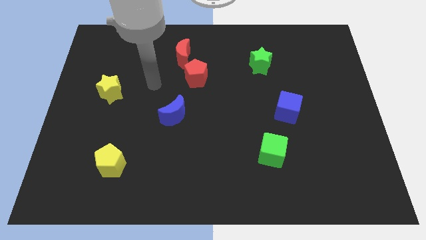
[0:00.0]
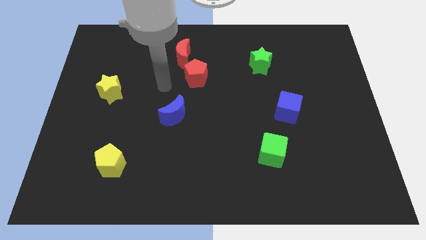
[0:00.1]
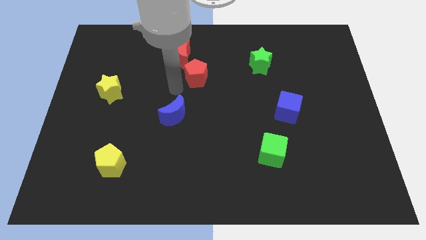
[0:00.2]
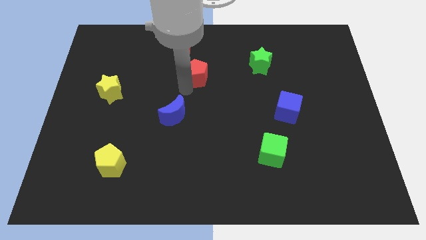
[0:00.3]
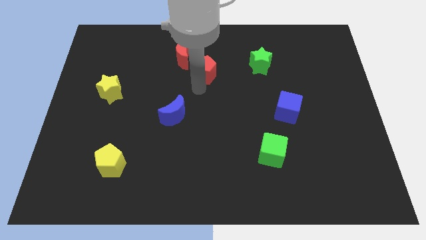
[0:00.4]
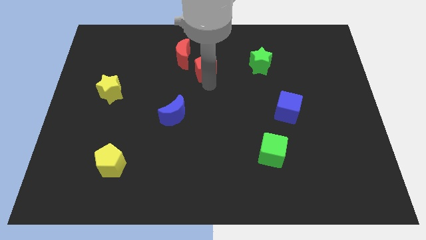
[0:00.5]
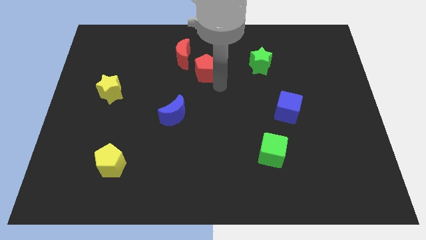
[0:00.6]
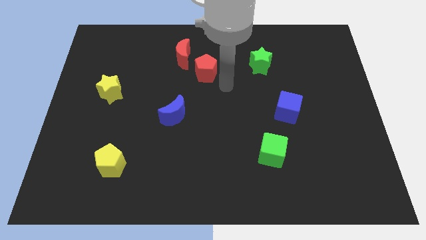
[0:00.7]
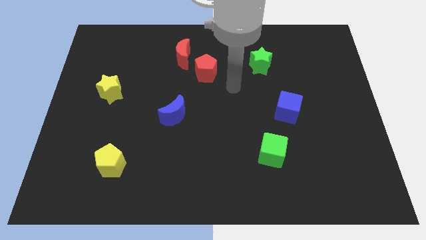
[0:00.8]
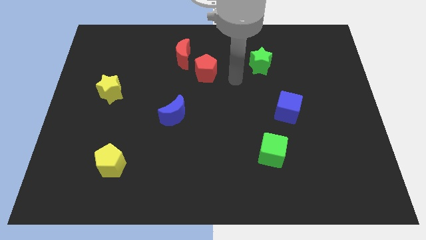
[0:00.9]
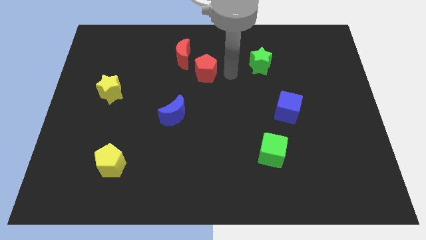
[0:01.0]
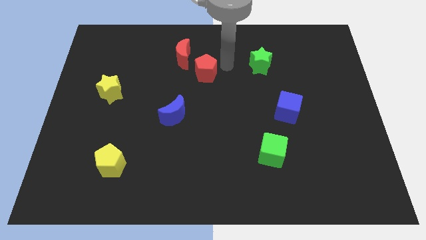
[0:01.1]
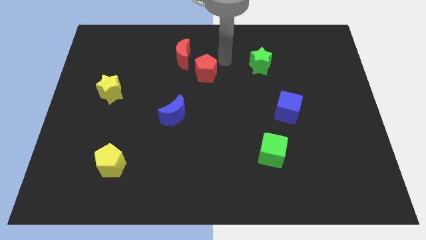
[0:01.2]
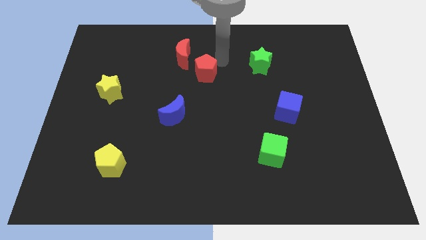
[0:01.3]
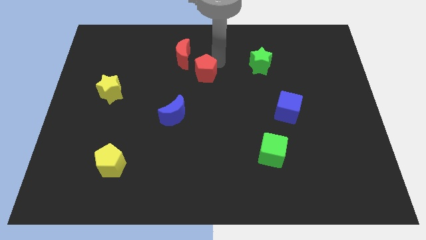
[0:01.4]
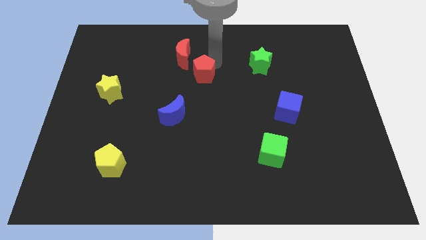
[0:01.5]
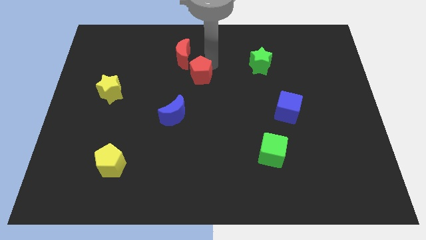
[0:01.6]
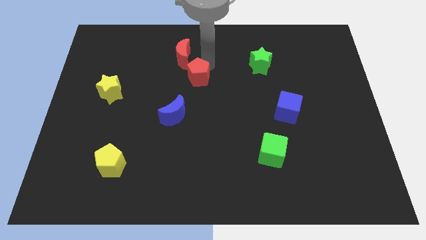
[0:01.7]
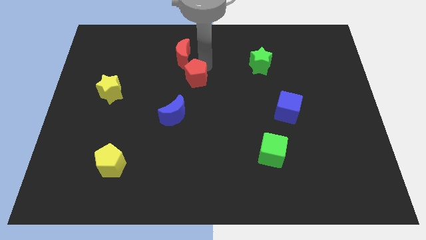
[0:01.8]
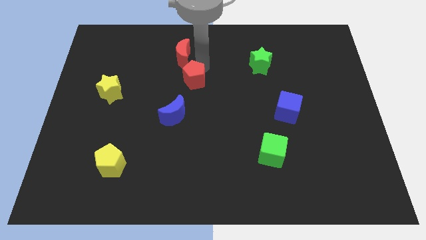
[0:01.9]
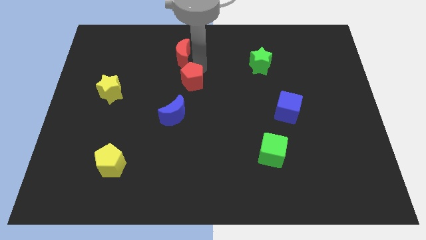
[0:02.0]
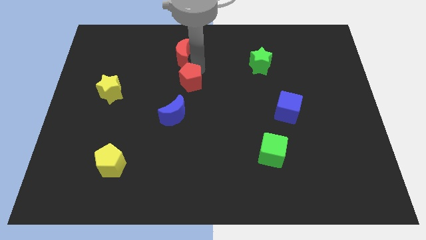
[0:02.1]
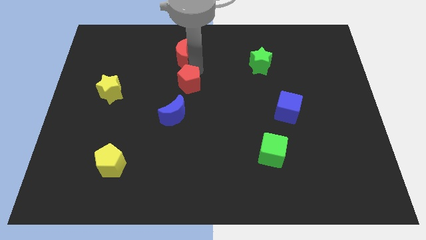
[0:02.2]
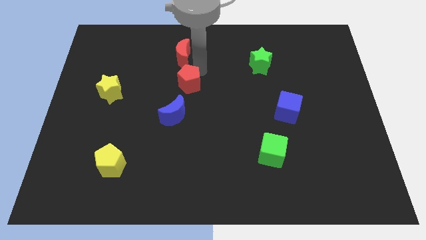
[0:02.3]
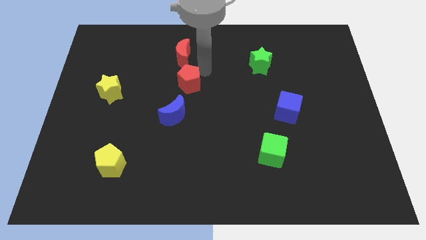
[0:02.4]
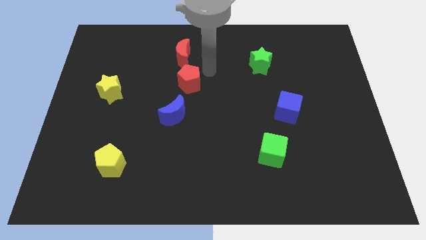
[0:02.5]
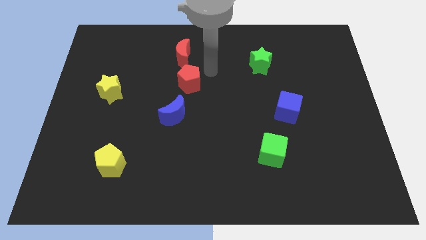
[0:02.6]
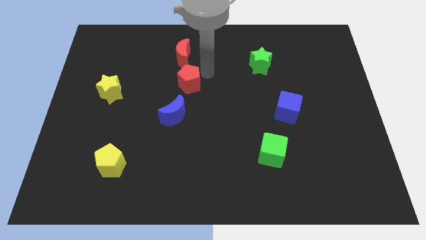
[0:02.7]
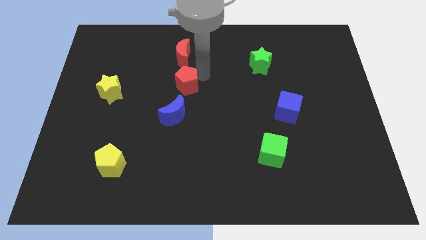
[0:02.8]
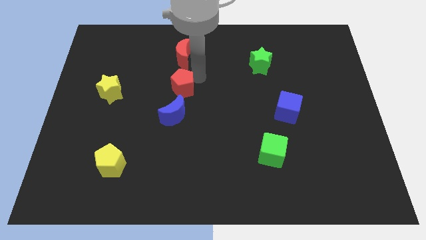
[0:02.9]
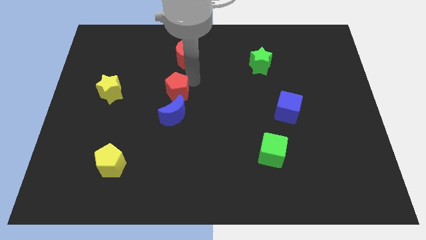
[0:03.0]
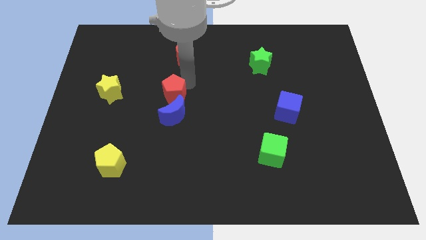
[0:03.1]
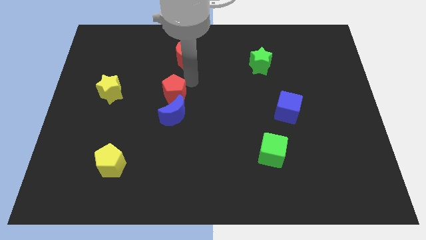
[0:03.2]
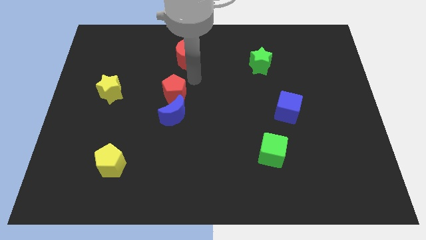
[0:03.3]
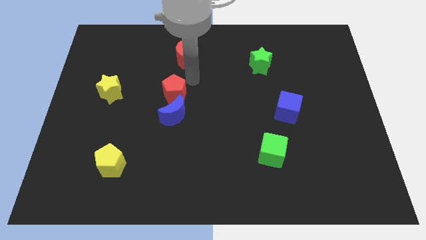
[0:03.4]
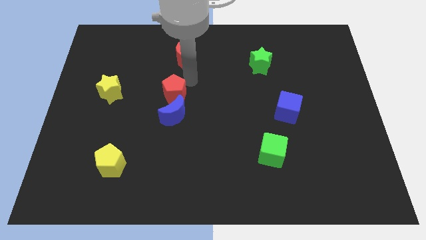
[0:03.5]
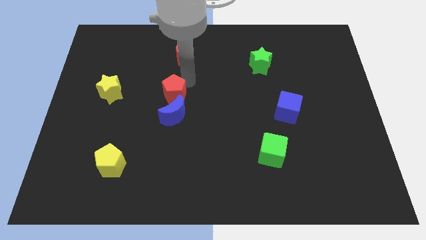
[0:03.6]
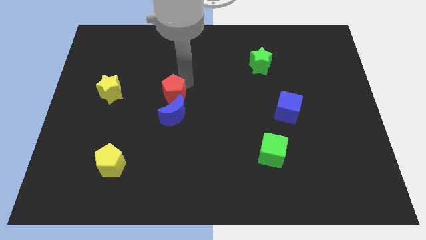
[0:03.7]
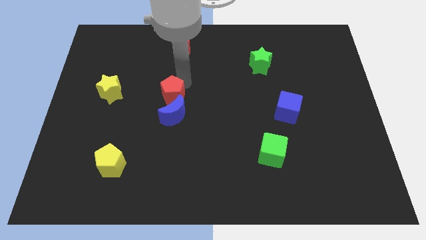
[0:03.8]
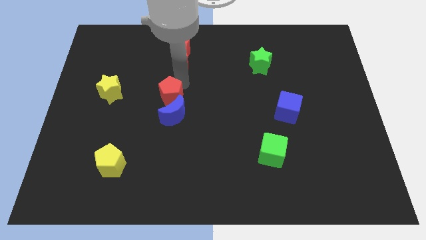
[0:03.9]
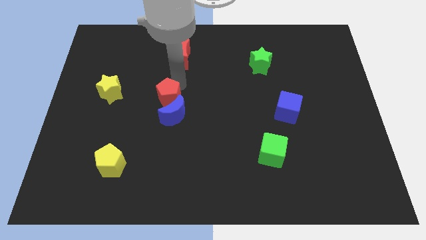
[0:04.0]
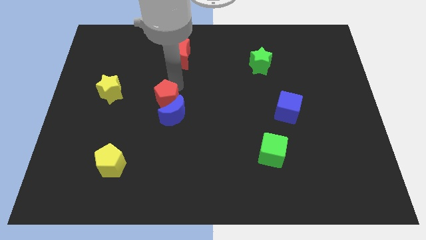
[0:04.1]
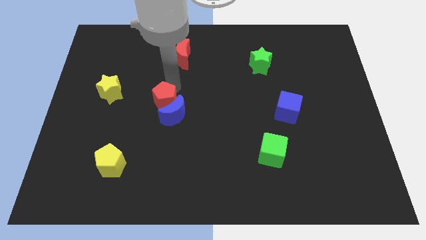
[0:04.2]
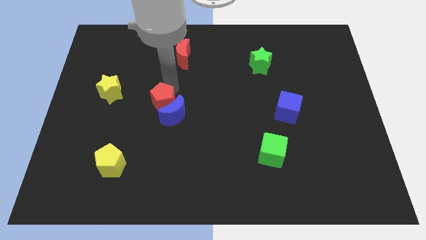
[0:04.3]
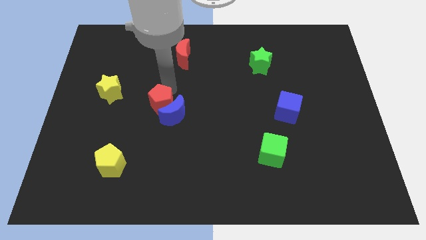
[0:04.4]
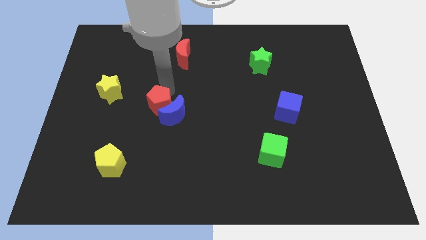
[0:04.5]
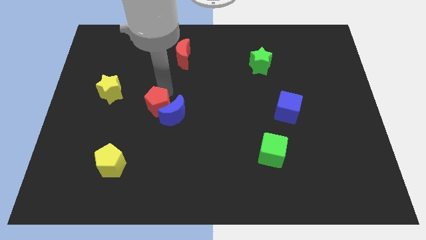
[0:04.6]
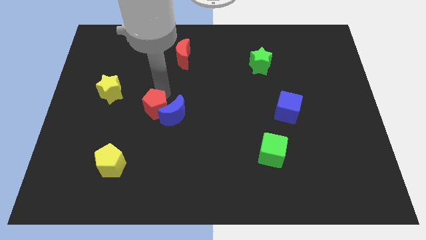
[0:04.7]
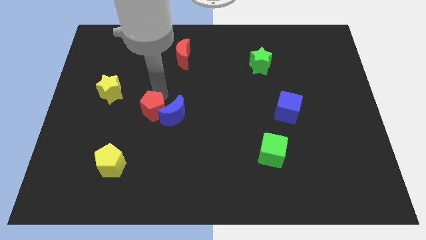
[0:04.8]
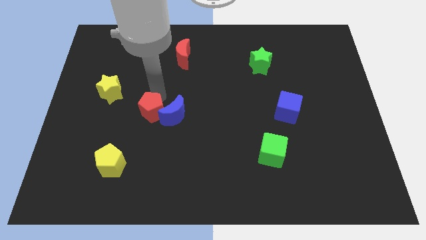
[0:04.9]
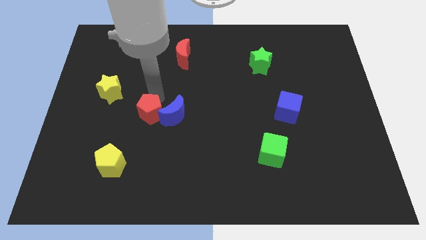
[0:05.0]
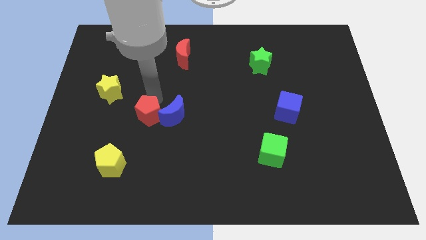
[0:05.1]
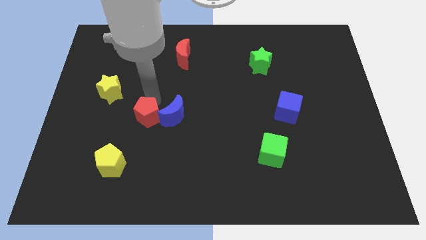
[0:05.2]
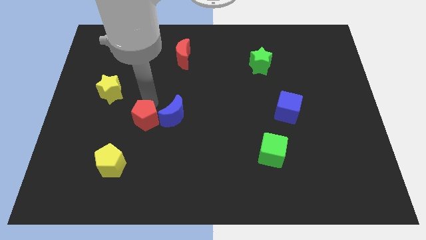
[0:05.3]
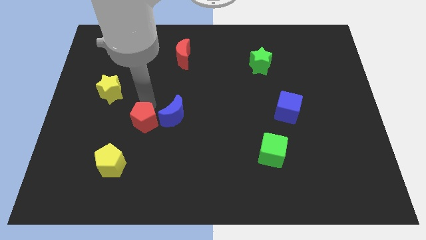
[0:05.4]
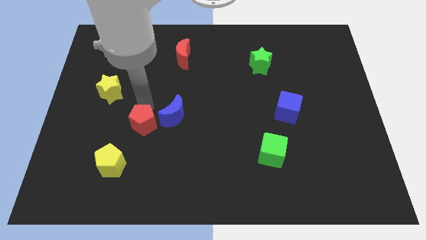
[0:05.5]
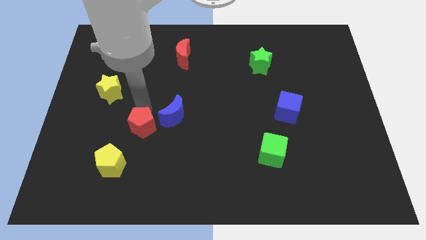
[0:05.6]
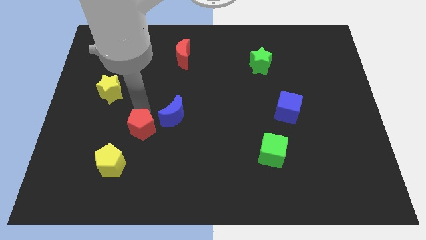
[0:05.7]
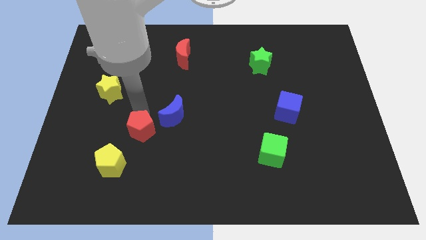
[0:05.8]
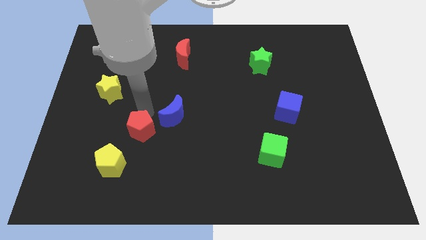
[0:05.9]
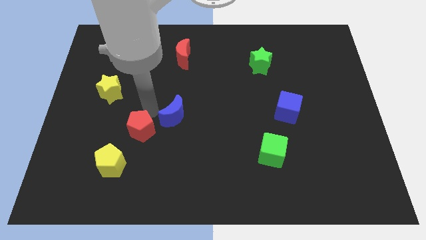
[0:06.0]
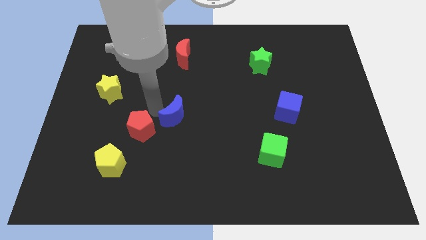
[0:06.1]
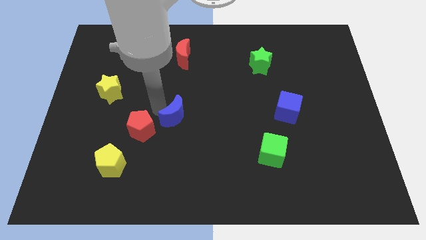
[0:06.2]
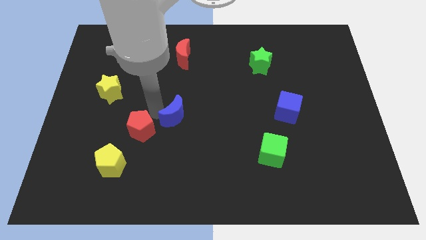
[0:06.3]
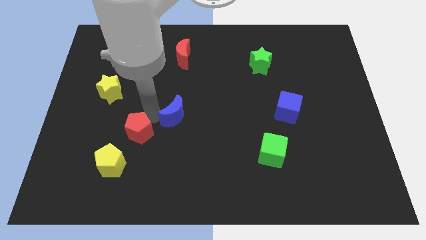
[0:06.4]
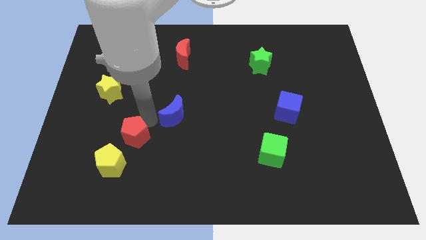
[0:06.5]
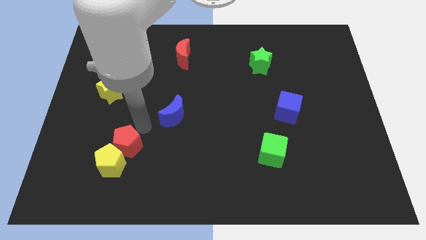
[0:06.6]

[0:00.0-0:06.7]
slide the red pentagon next to the yellow pentagon
